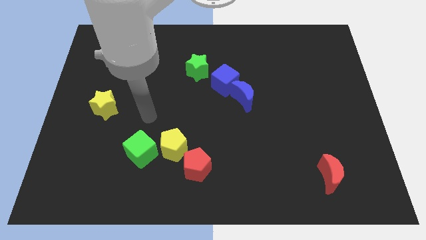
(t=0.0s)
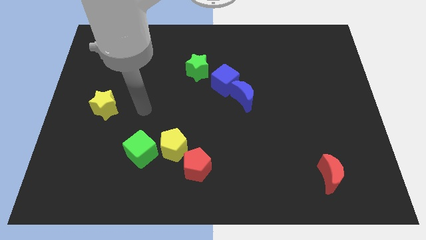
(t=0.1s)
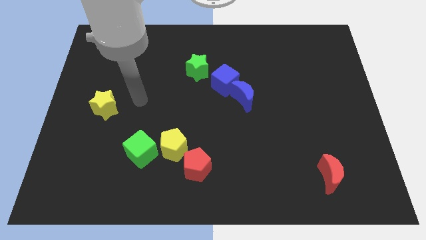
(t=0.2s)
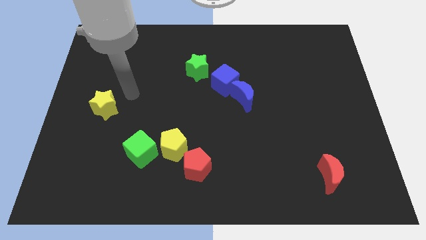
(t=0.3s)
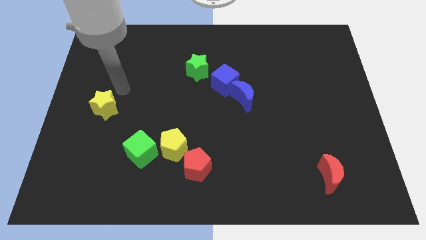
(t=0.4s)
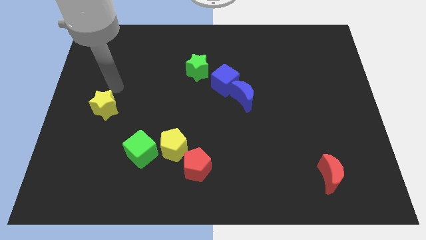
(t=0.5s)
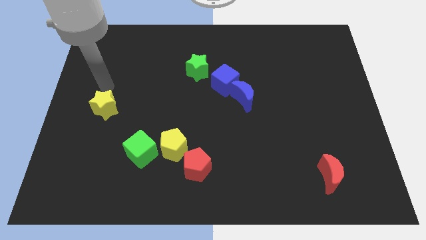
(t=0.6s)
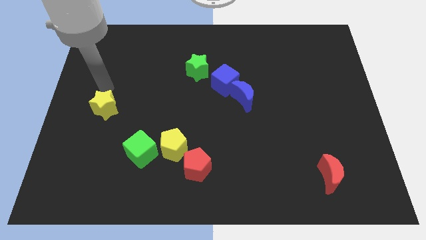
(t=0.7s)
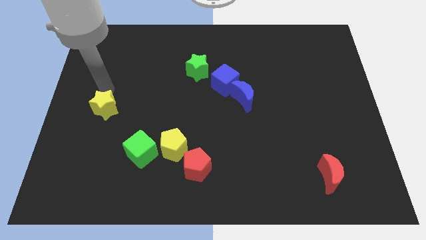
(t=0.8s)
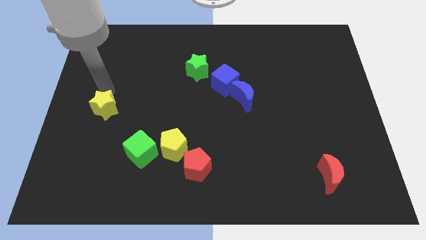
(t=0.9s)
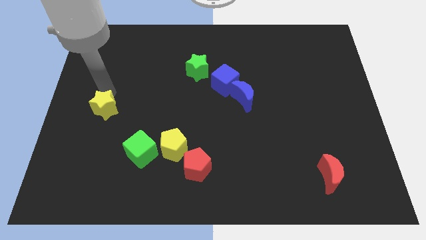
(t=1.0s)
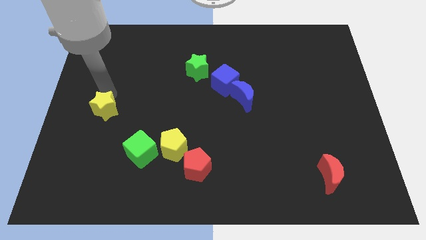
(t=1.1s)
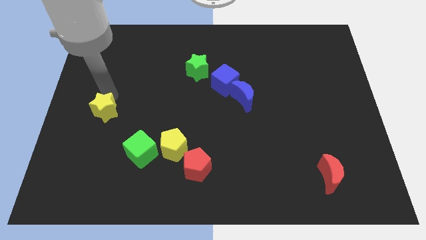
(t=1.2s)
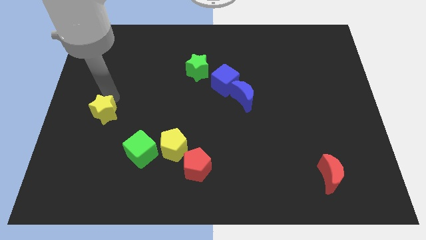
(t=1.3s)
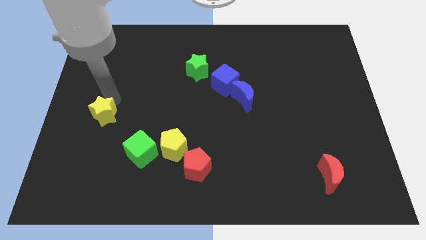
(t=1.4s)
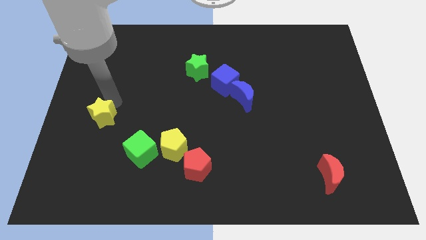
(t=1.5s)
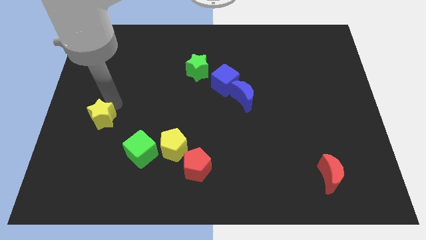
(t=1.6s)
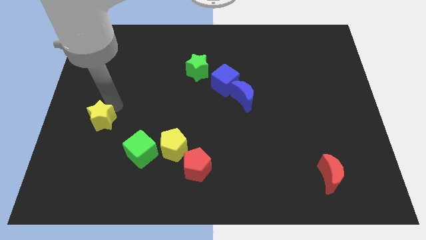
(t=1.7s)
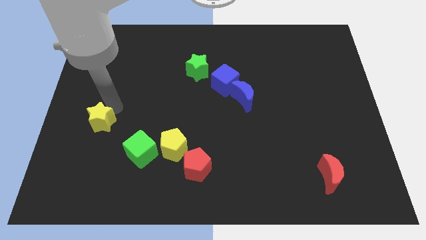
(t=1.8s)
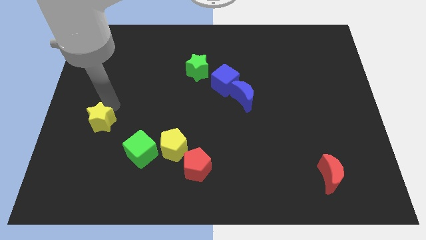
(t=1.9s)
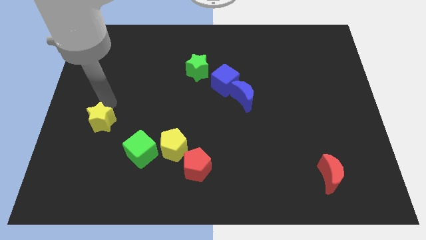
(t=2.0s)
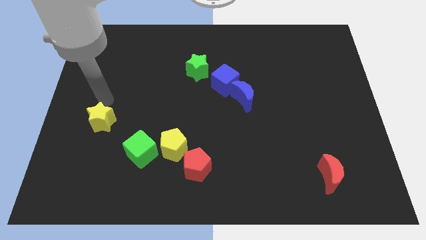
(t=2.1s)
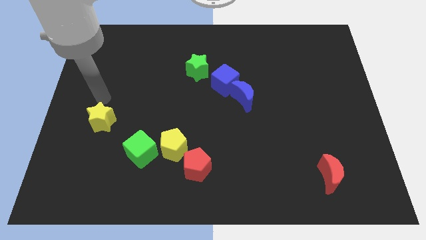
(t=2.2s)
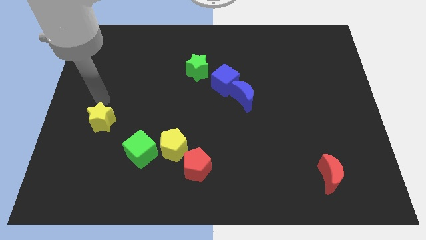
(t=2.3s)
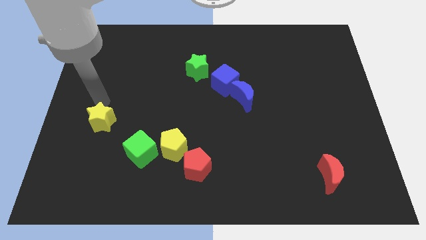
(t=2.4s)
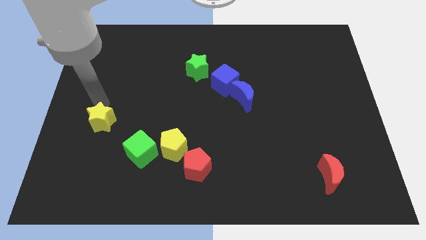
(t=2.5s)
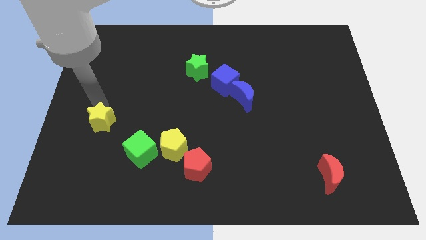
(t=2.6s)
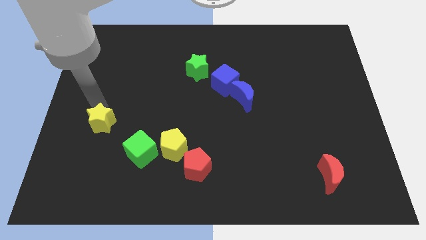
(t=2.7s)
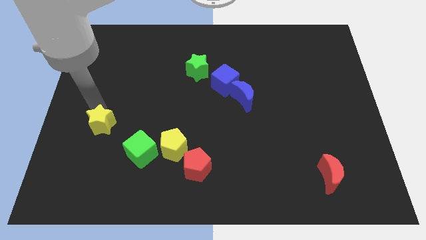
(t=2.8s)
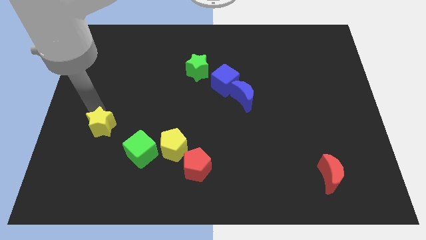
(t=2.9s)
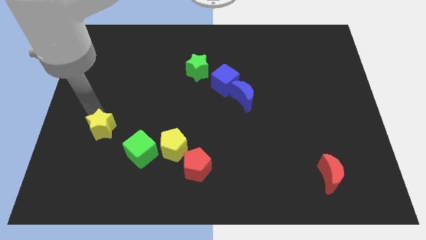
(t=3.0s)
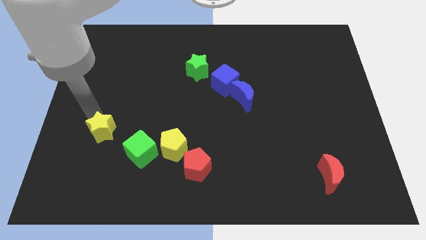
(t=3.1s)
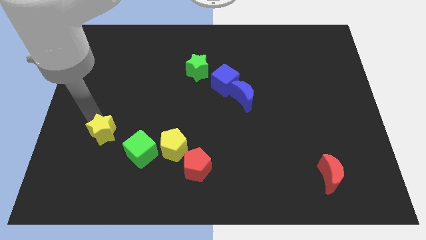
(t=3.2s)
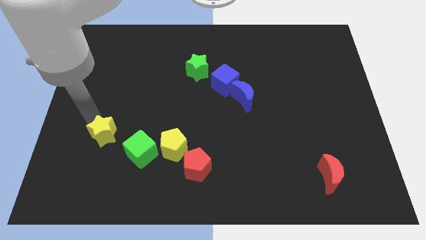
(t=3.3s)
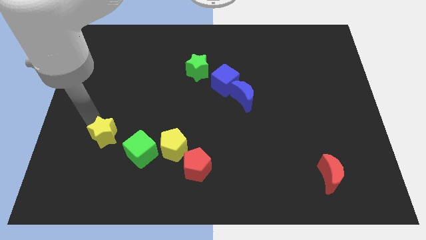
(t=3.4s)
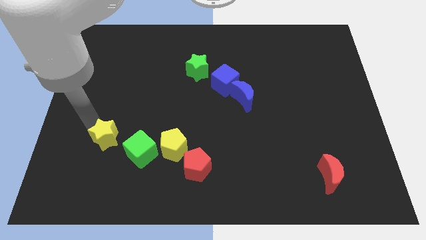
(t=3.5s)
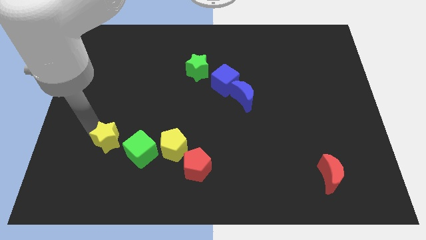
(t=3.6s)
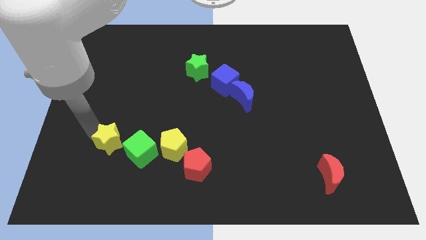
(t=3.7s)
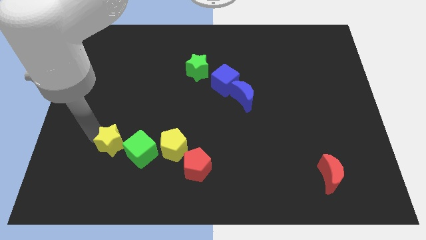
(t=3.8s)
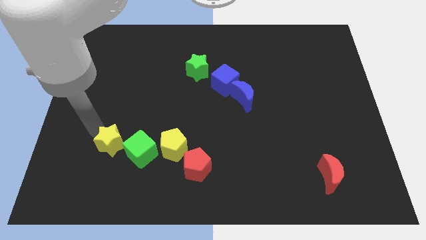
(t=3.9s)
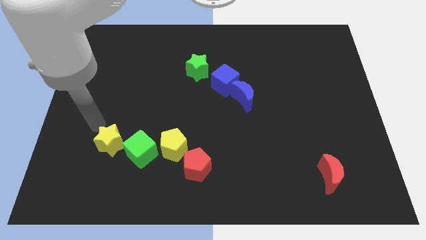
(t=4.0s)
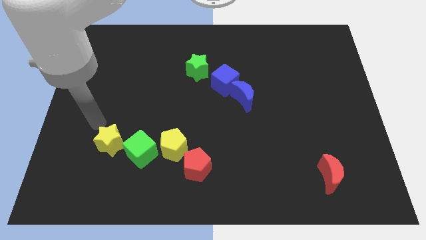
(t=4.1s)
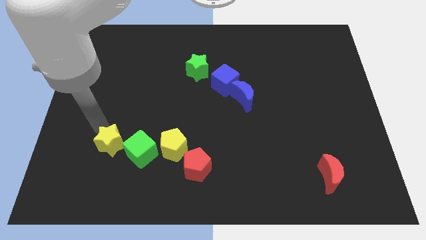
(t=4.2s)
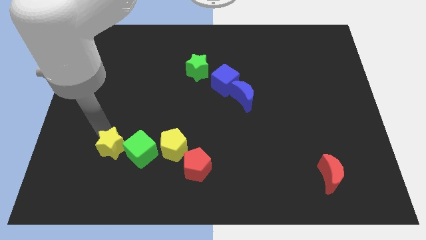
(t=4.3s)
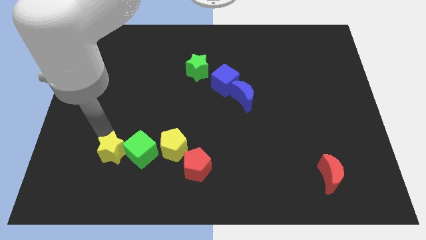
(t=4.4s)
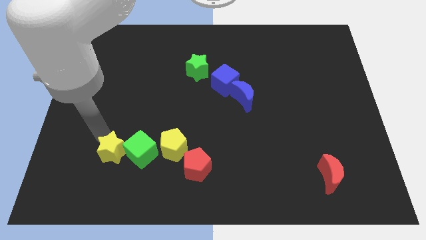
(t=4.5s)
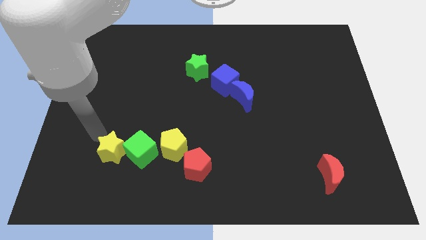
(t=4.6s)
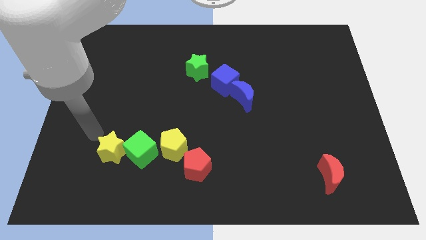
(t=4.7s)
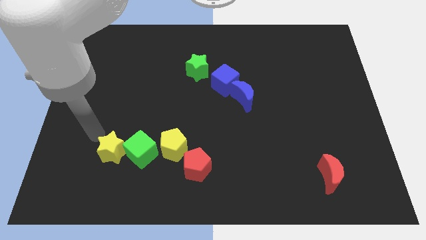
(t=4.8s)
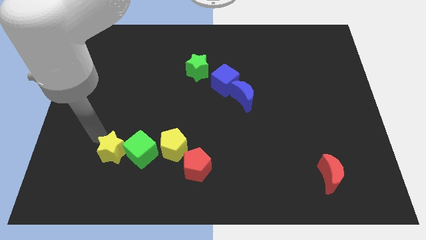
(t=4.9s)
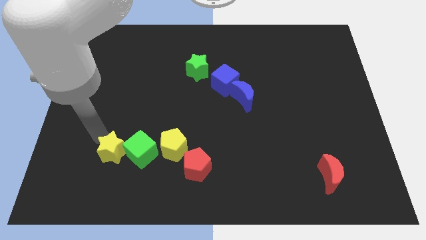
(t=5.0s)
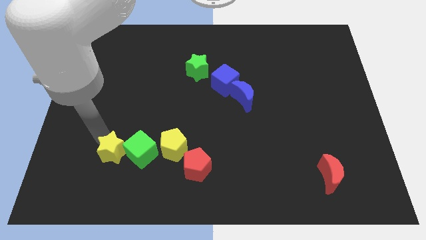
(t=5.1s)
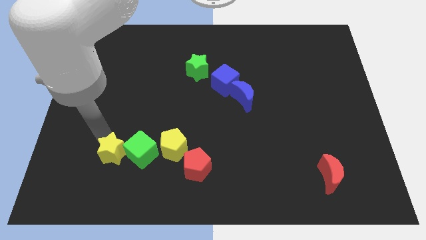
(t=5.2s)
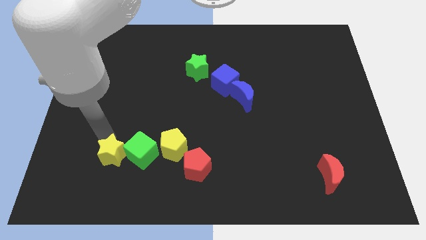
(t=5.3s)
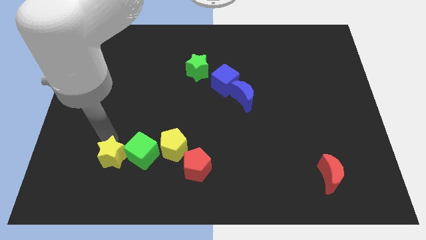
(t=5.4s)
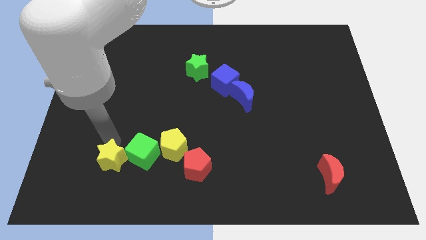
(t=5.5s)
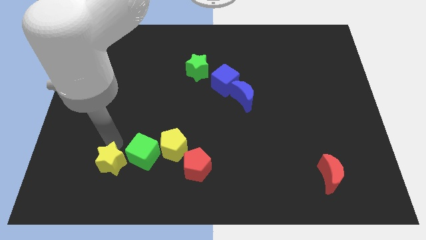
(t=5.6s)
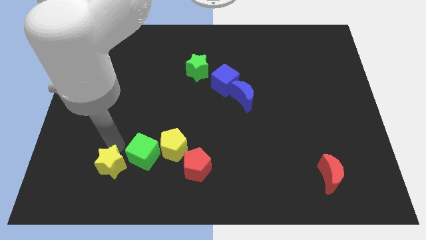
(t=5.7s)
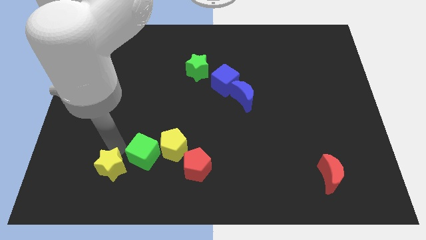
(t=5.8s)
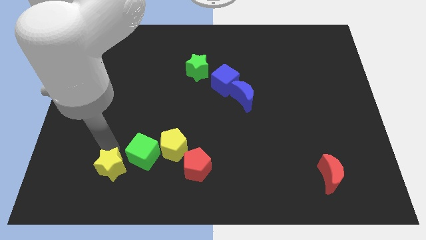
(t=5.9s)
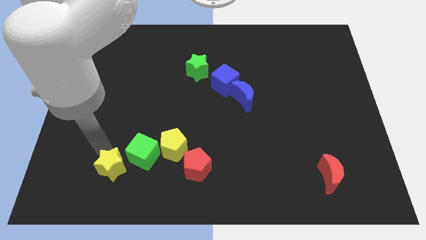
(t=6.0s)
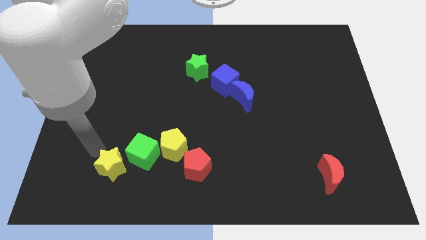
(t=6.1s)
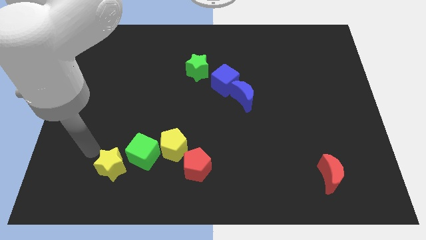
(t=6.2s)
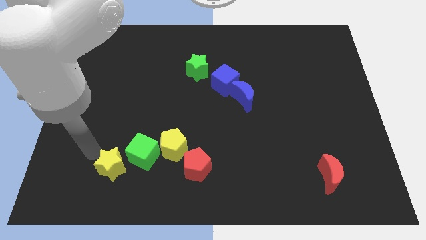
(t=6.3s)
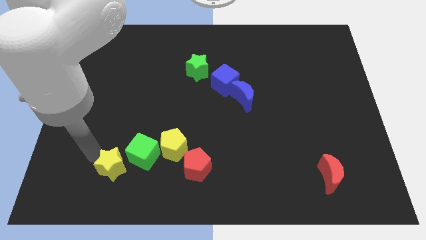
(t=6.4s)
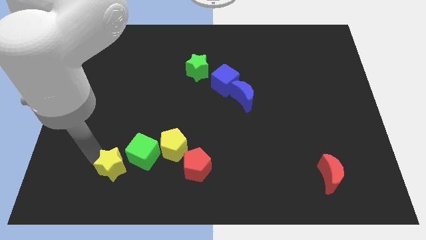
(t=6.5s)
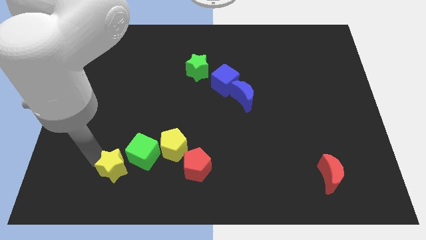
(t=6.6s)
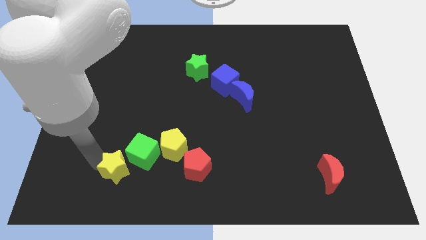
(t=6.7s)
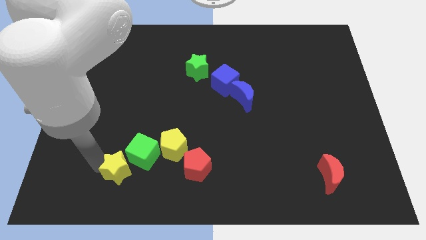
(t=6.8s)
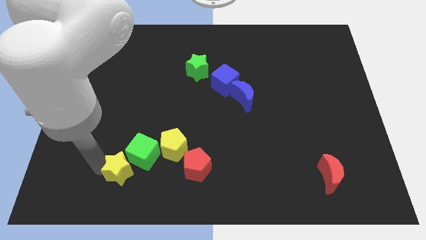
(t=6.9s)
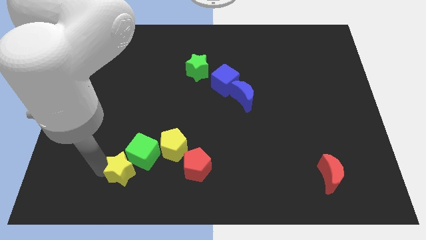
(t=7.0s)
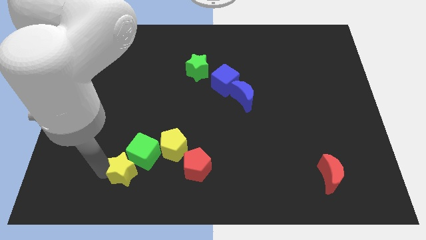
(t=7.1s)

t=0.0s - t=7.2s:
push the yellow star to the bottom left side of the yellow pentagon

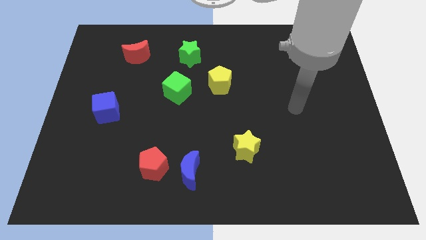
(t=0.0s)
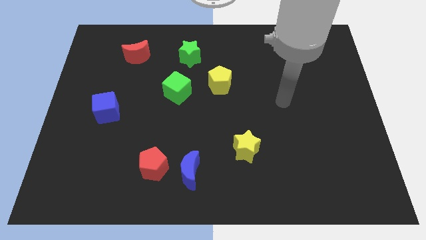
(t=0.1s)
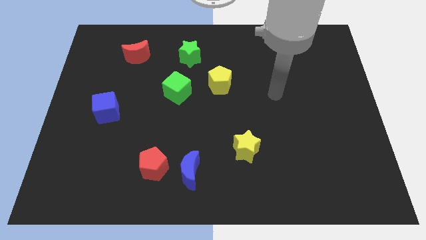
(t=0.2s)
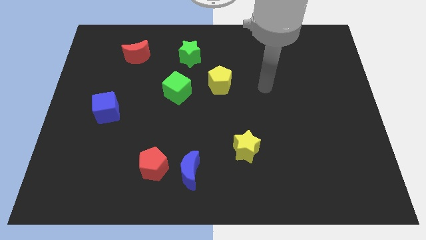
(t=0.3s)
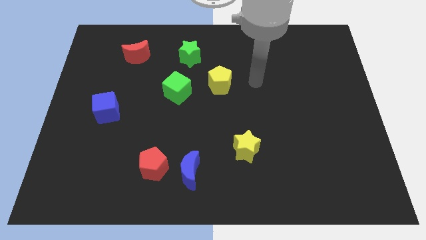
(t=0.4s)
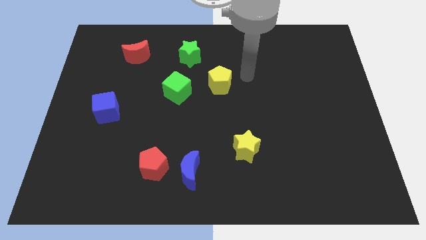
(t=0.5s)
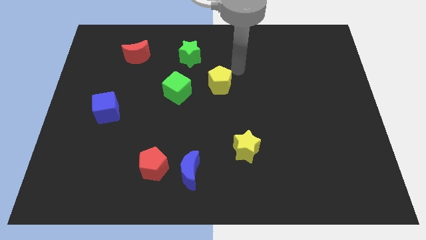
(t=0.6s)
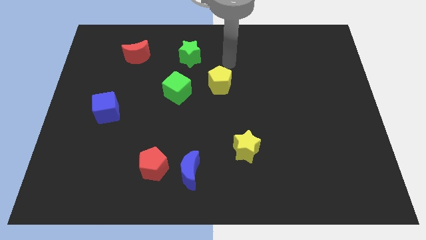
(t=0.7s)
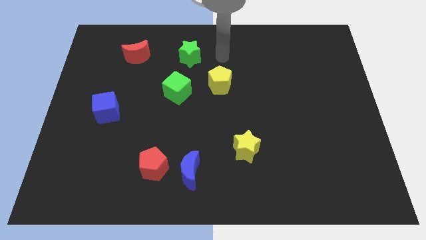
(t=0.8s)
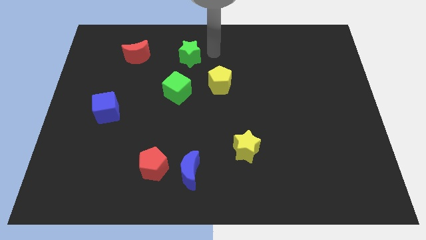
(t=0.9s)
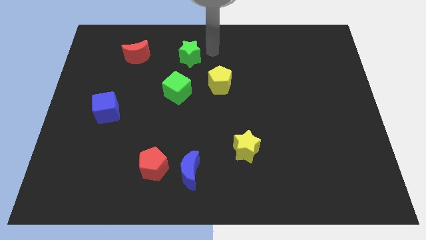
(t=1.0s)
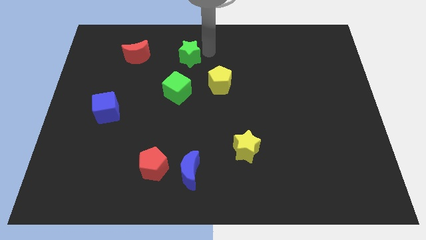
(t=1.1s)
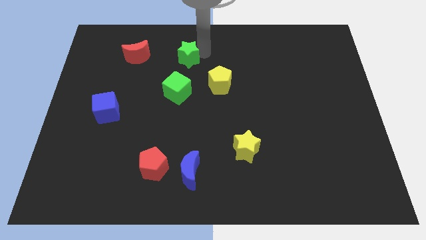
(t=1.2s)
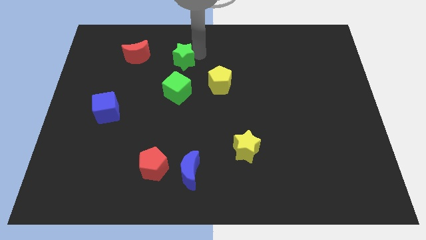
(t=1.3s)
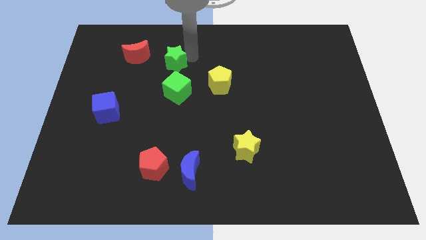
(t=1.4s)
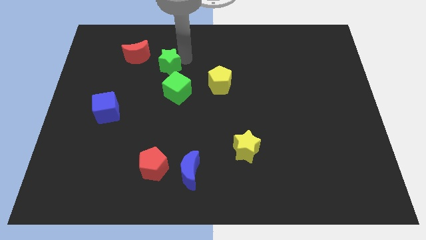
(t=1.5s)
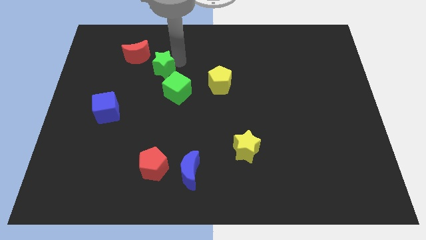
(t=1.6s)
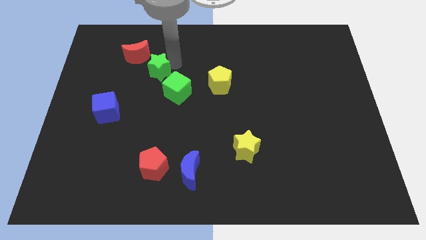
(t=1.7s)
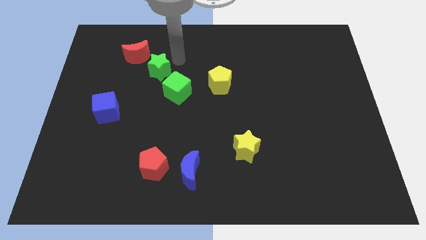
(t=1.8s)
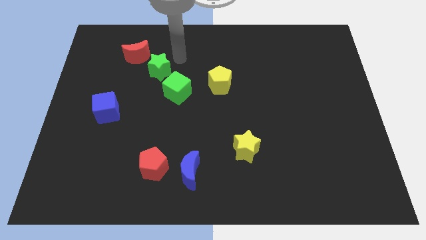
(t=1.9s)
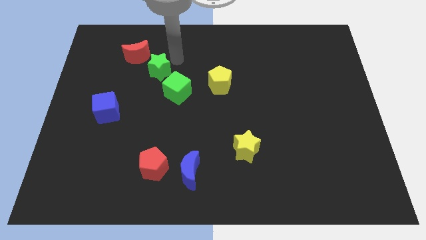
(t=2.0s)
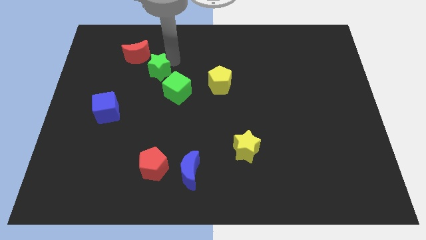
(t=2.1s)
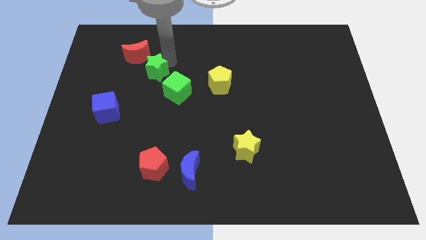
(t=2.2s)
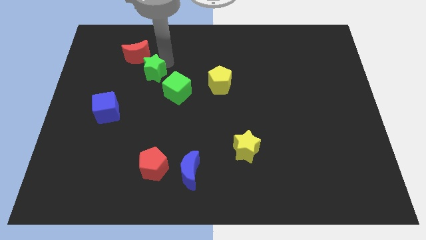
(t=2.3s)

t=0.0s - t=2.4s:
push the green star to the bottom of the red moon
